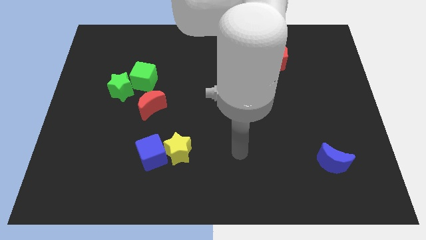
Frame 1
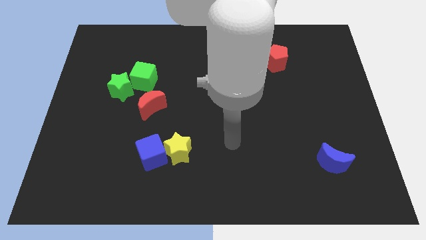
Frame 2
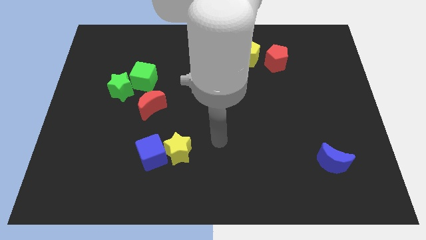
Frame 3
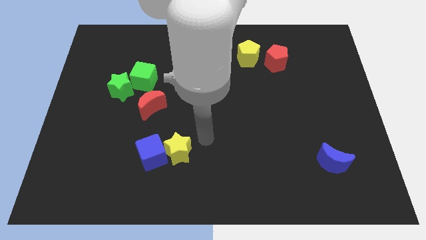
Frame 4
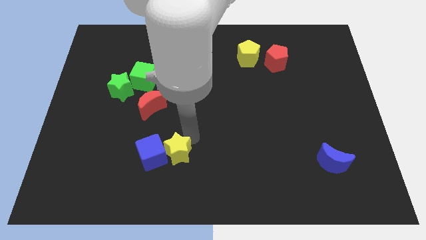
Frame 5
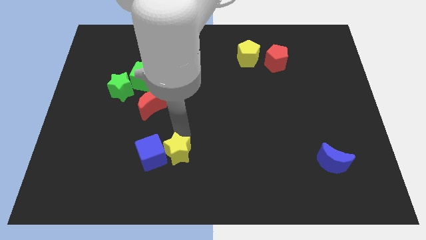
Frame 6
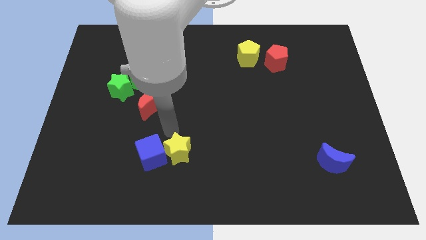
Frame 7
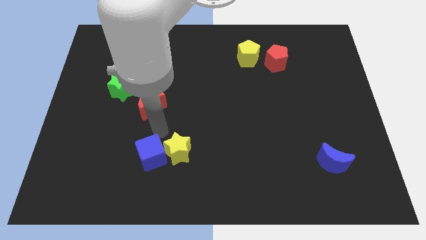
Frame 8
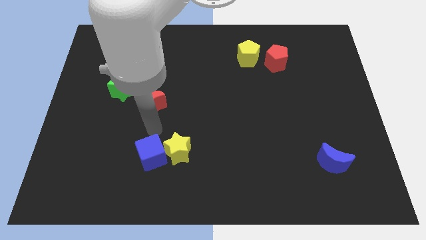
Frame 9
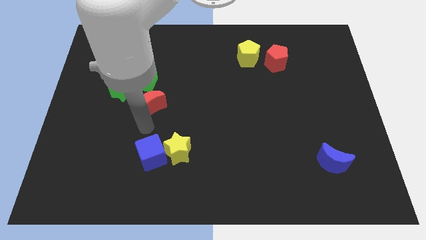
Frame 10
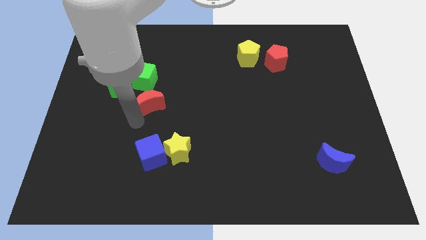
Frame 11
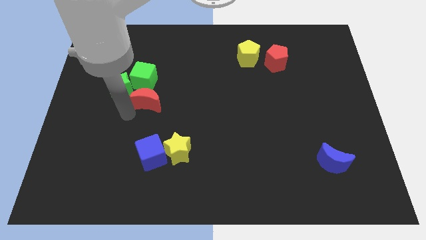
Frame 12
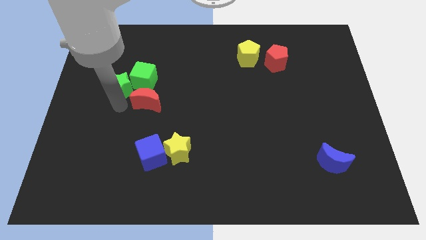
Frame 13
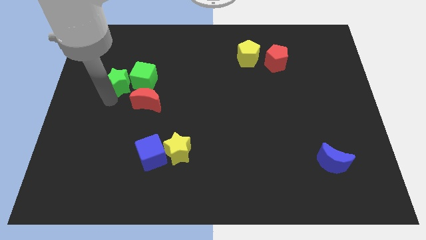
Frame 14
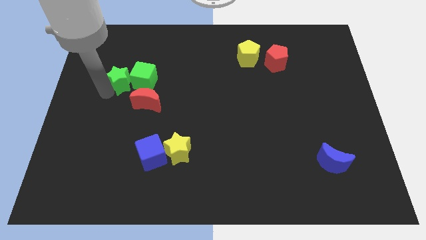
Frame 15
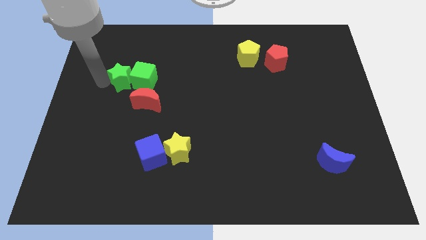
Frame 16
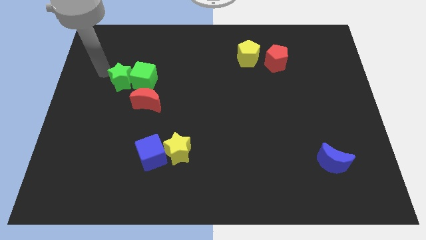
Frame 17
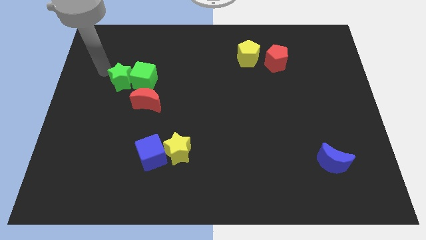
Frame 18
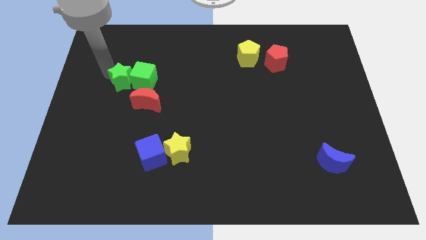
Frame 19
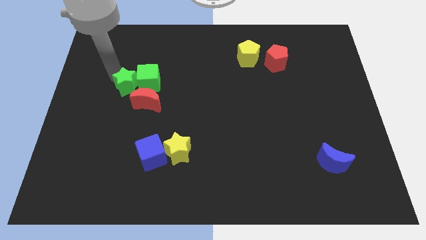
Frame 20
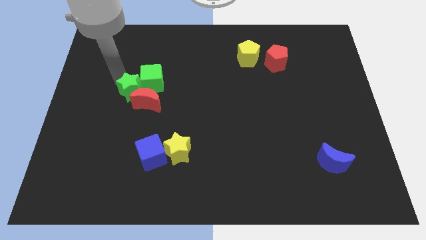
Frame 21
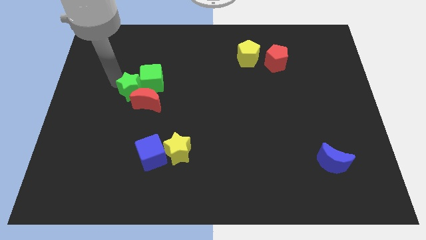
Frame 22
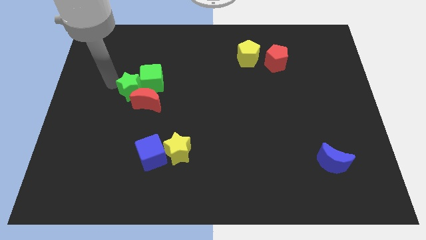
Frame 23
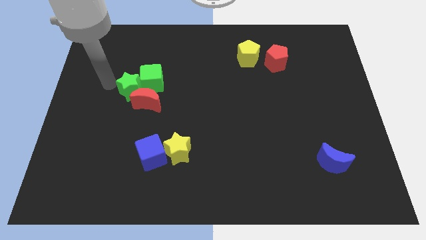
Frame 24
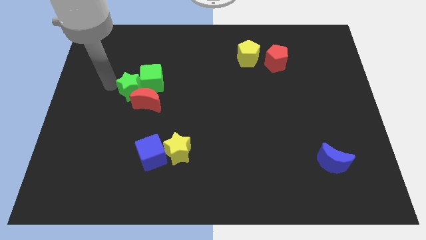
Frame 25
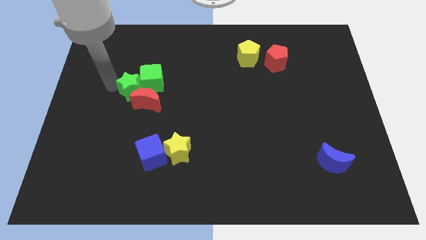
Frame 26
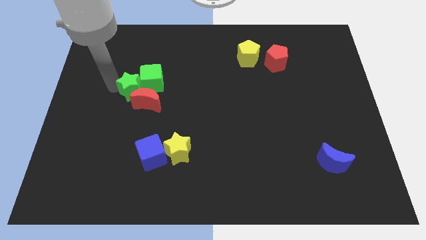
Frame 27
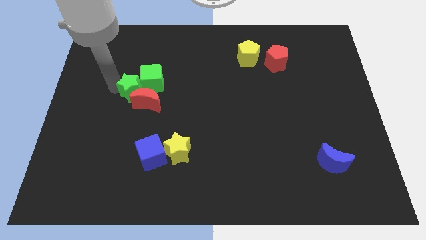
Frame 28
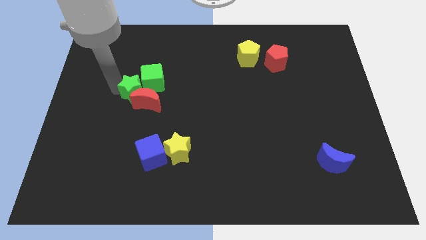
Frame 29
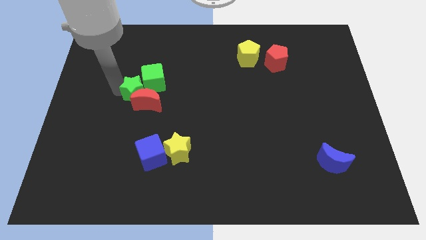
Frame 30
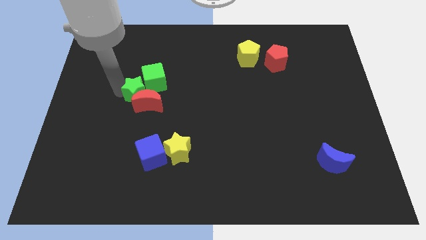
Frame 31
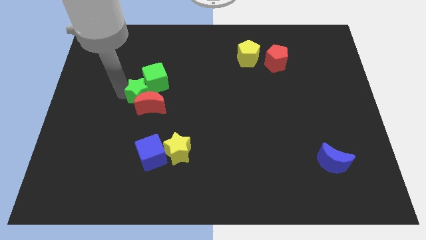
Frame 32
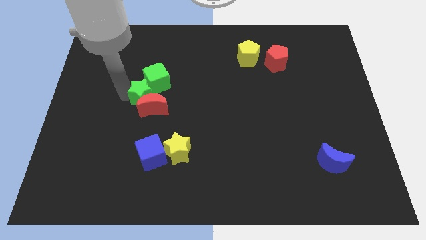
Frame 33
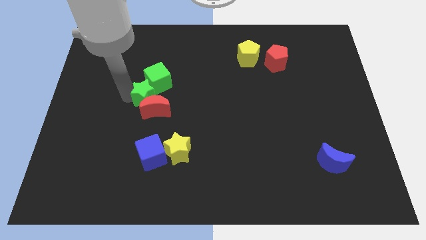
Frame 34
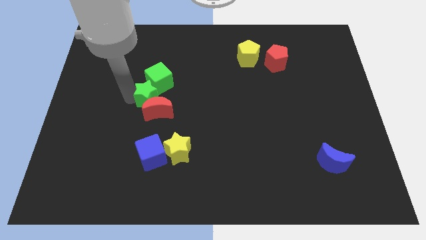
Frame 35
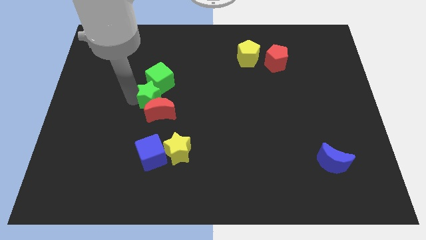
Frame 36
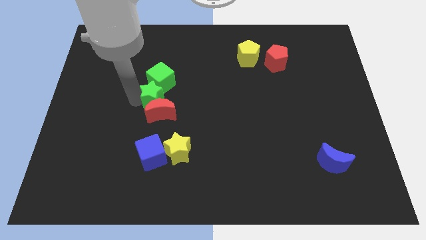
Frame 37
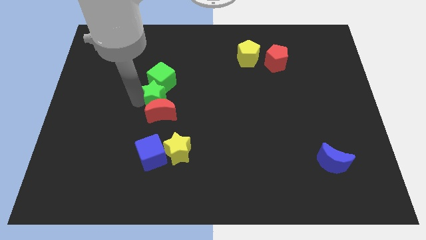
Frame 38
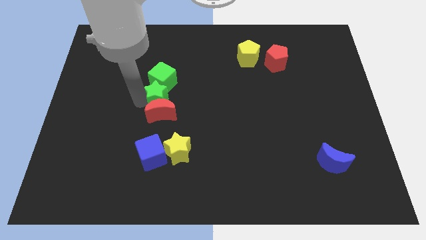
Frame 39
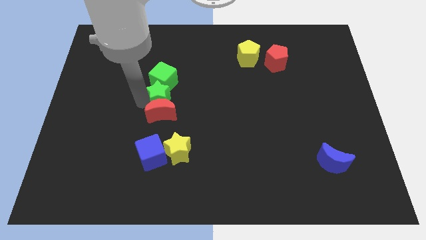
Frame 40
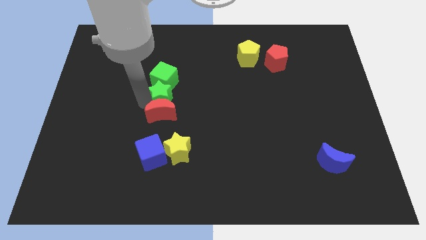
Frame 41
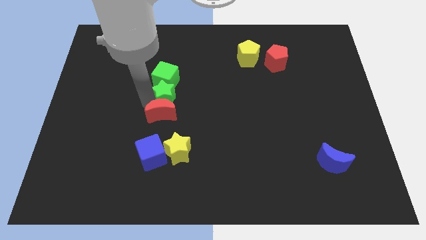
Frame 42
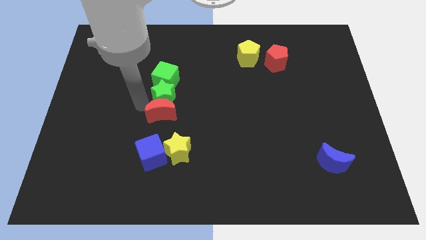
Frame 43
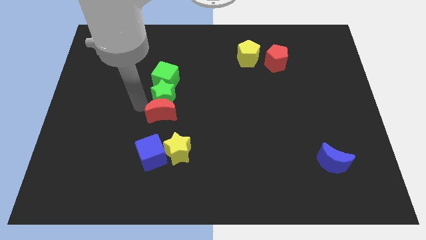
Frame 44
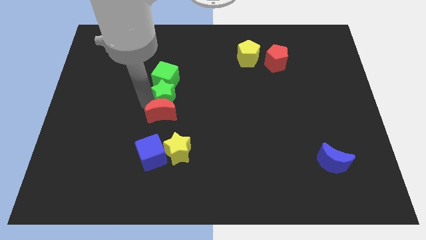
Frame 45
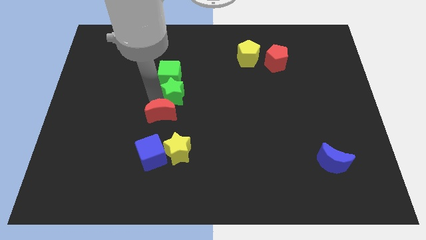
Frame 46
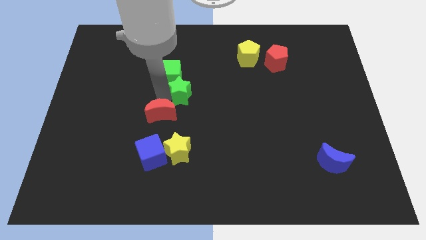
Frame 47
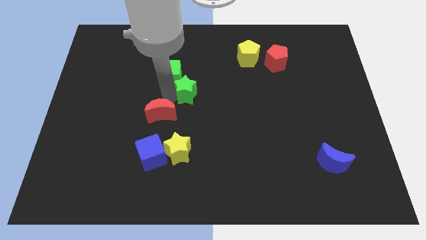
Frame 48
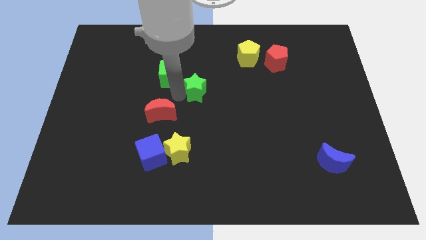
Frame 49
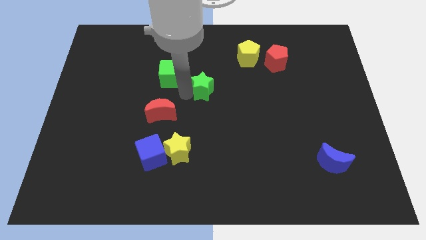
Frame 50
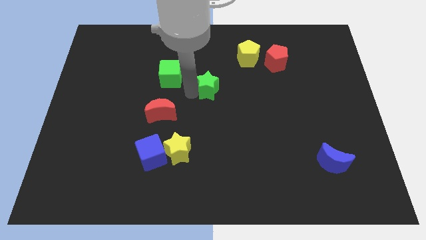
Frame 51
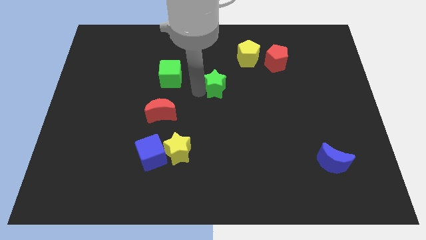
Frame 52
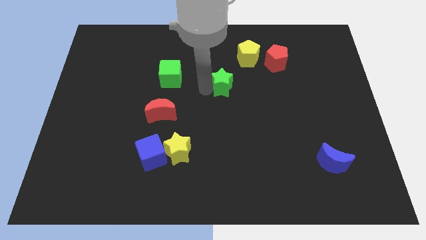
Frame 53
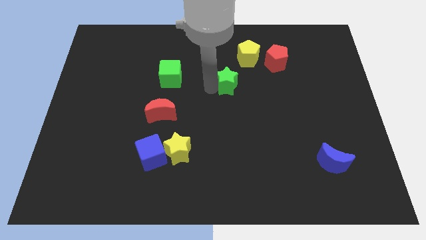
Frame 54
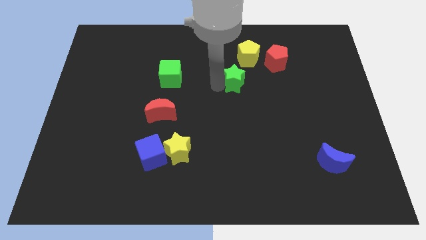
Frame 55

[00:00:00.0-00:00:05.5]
slide the green star to the bottom side of the yellow pentagon

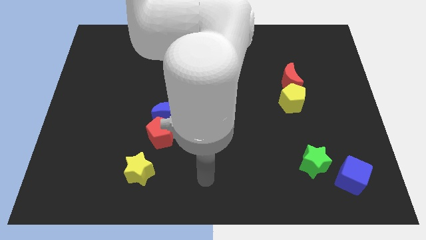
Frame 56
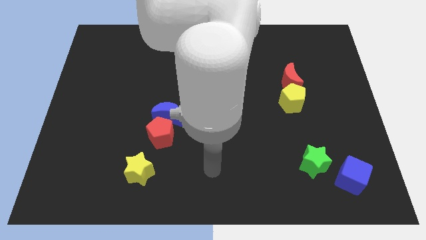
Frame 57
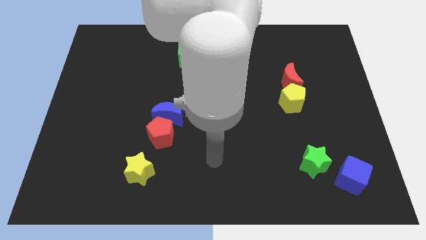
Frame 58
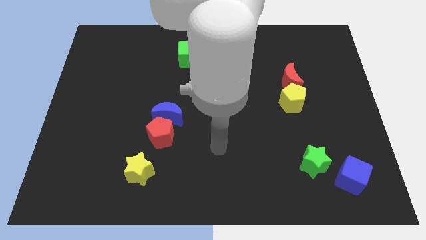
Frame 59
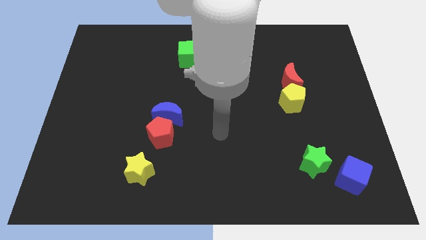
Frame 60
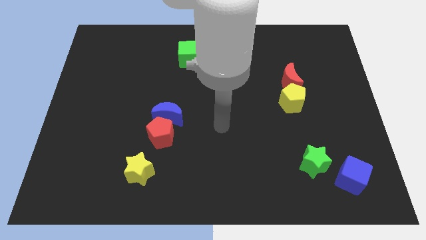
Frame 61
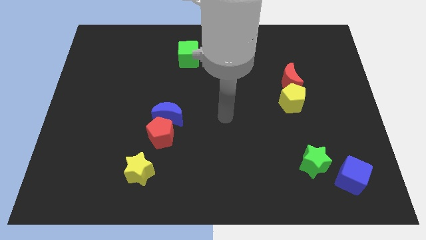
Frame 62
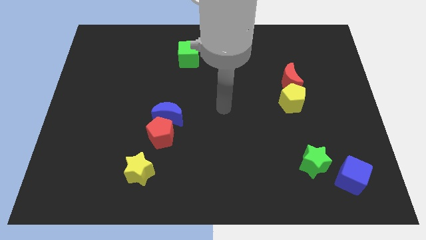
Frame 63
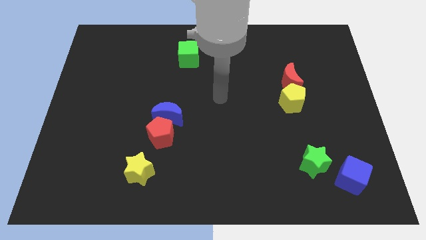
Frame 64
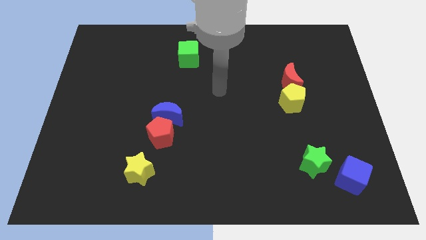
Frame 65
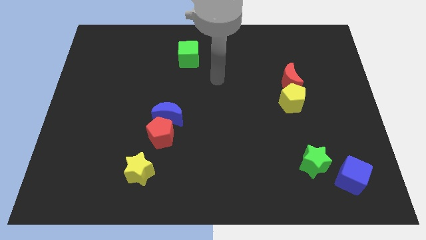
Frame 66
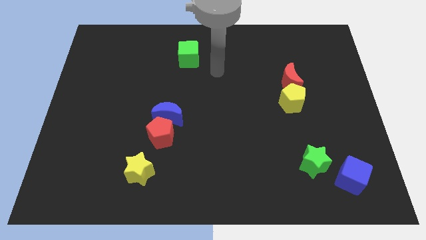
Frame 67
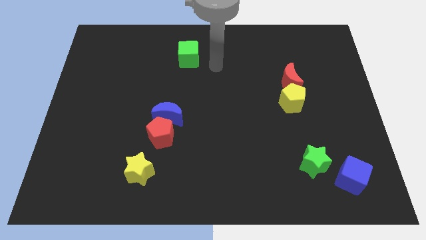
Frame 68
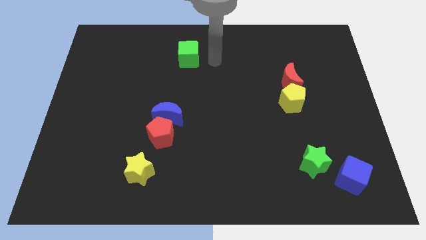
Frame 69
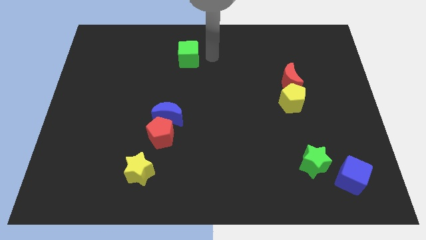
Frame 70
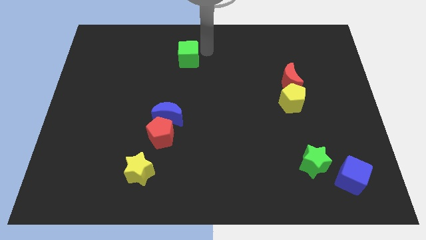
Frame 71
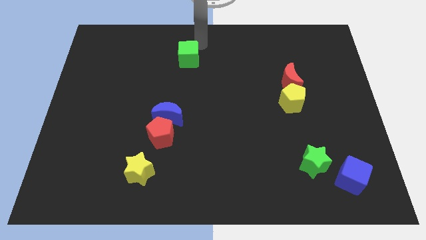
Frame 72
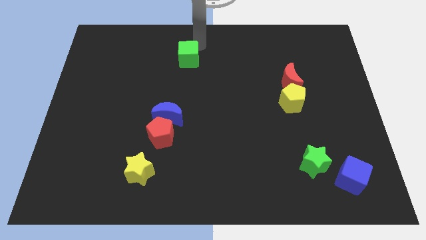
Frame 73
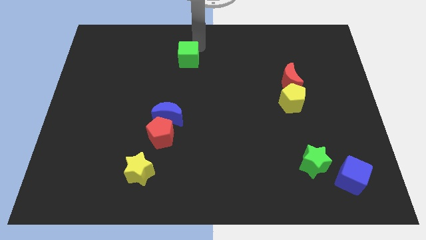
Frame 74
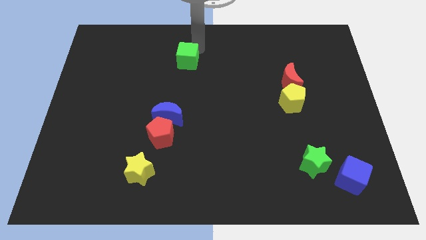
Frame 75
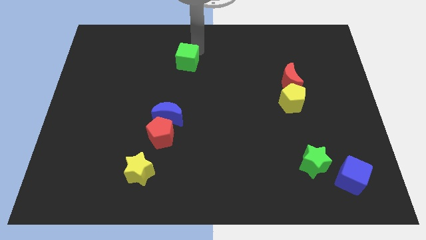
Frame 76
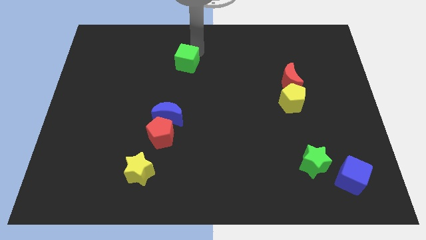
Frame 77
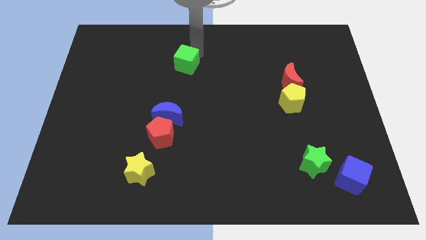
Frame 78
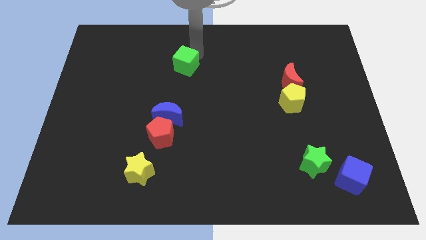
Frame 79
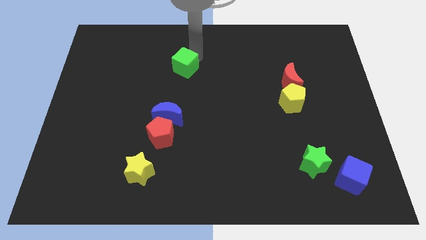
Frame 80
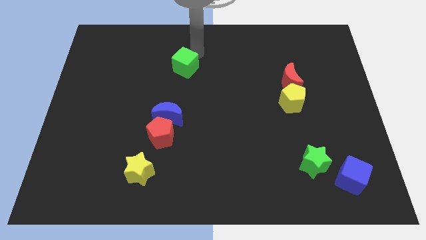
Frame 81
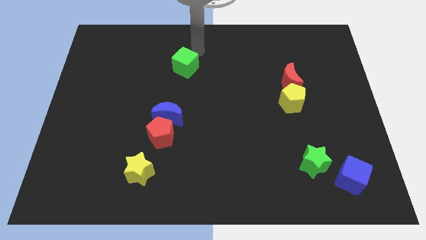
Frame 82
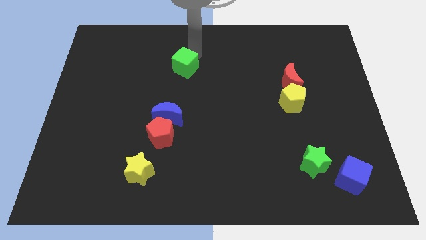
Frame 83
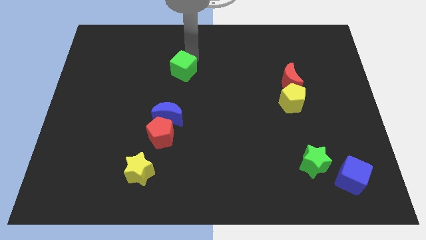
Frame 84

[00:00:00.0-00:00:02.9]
slide the green cube above the blue moon
